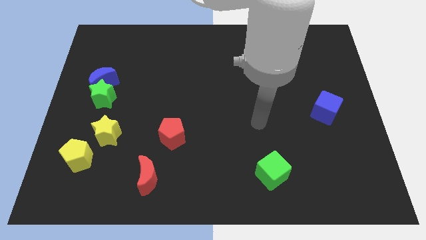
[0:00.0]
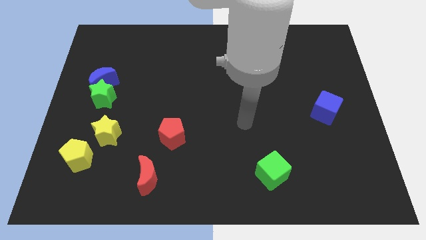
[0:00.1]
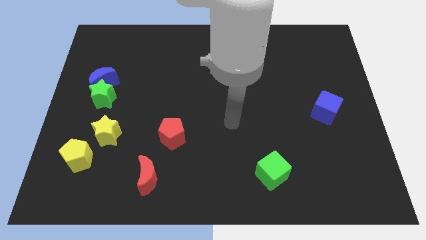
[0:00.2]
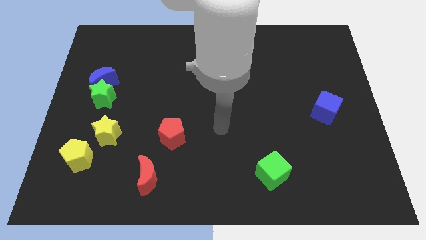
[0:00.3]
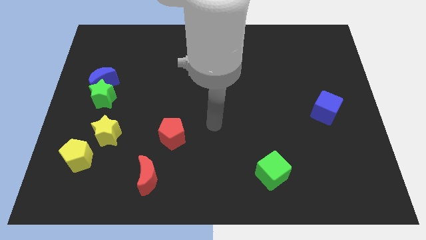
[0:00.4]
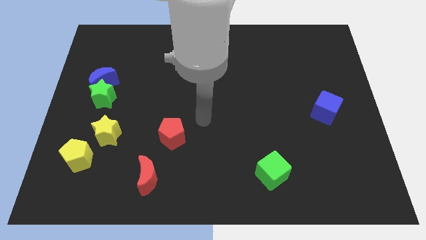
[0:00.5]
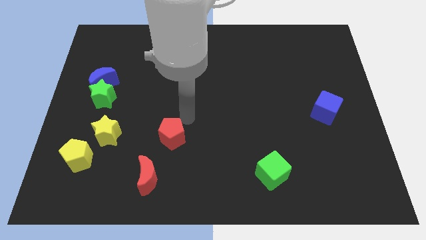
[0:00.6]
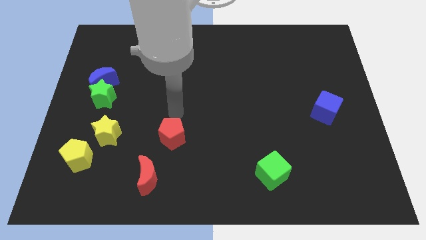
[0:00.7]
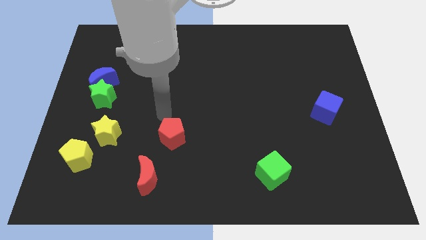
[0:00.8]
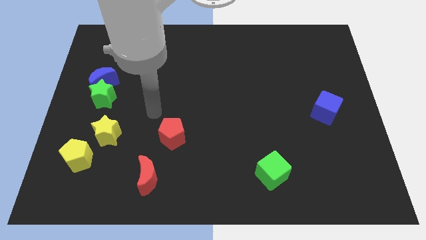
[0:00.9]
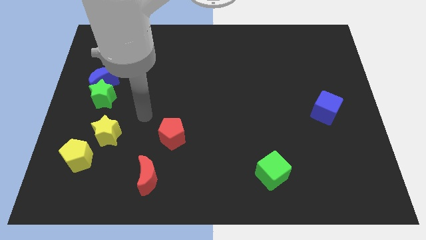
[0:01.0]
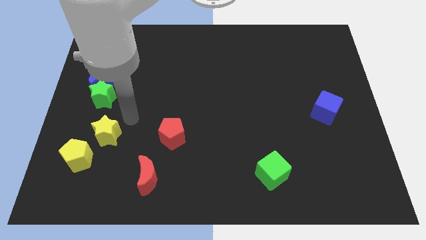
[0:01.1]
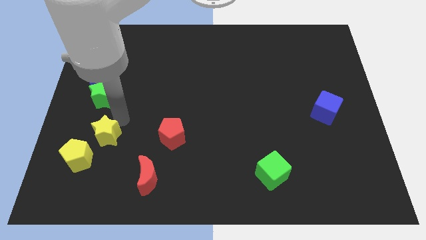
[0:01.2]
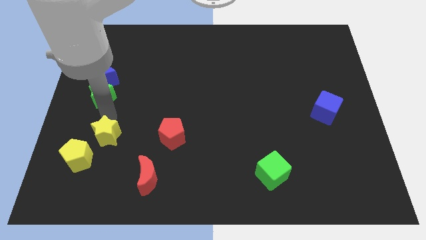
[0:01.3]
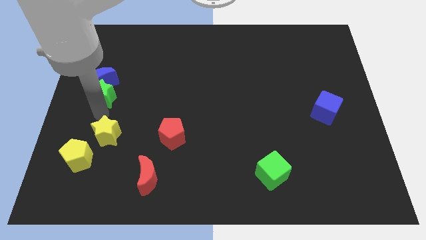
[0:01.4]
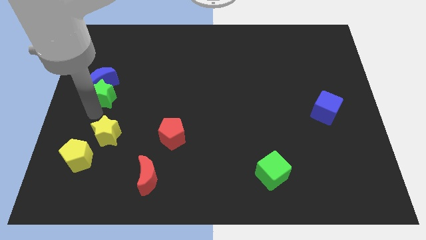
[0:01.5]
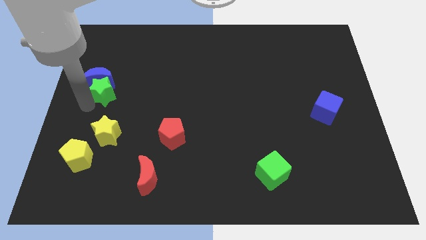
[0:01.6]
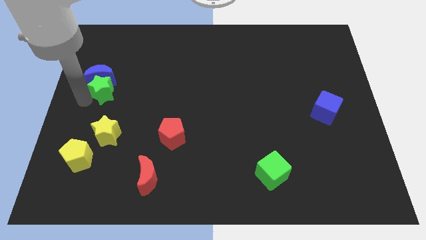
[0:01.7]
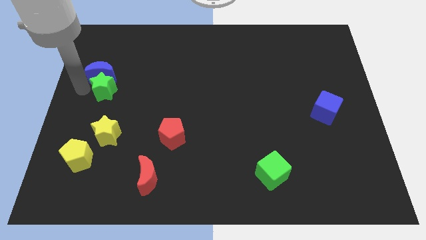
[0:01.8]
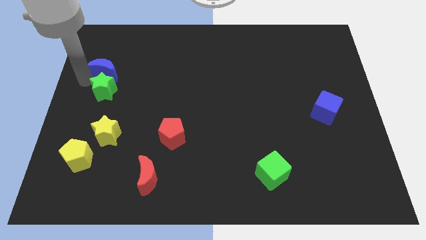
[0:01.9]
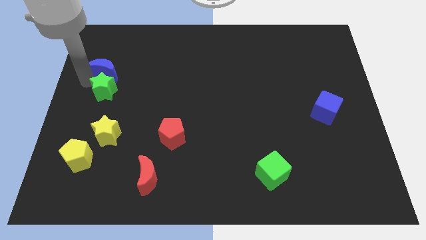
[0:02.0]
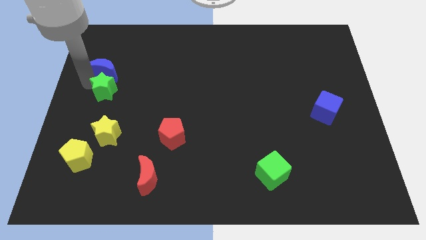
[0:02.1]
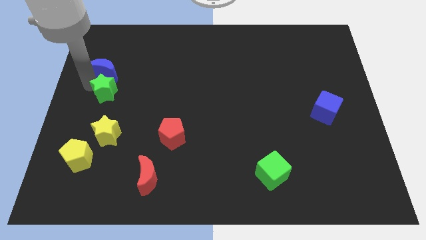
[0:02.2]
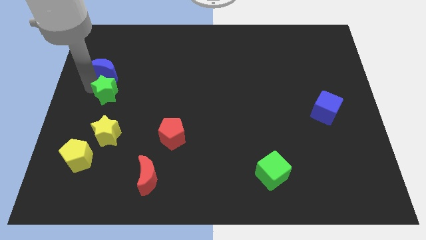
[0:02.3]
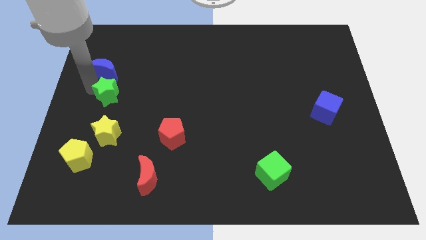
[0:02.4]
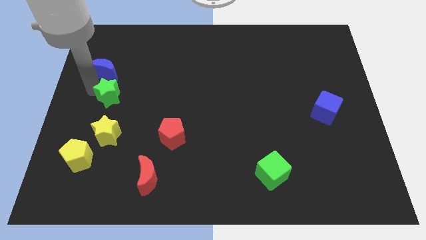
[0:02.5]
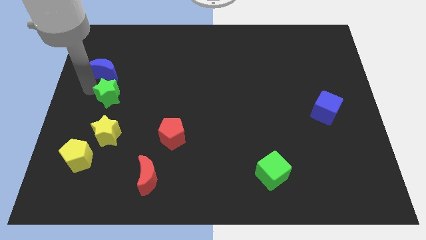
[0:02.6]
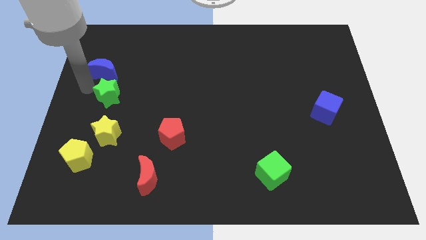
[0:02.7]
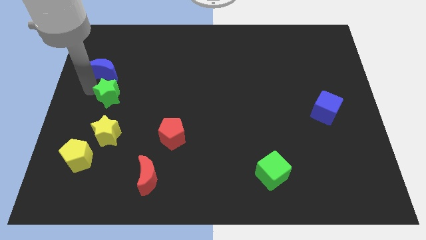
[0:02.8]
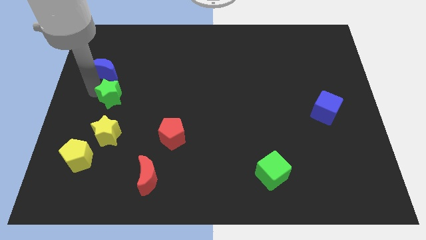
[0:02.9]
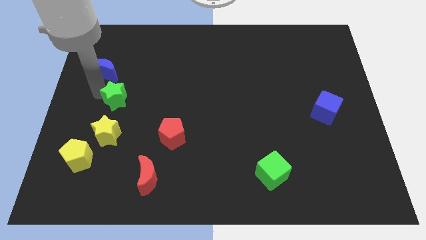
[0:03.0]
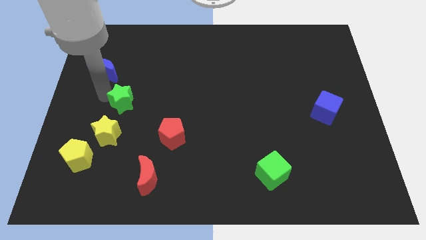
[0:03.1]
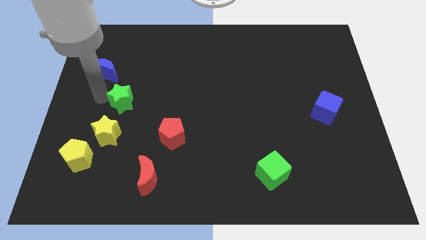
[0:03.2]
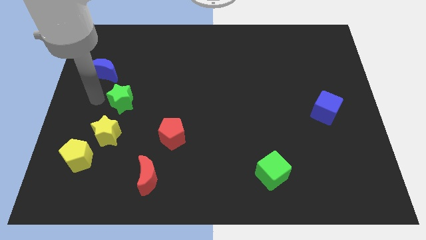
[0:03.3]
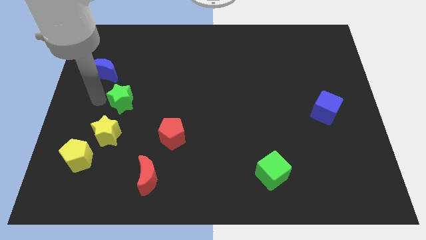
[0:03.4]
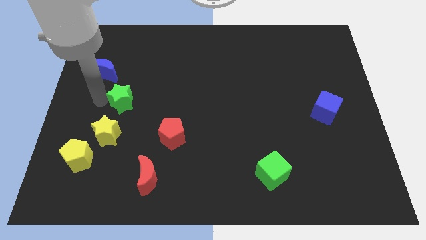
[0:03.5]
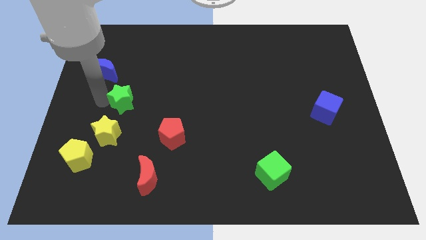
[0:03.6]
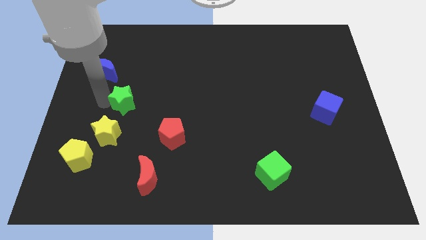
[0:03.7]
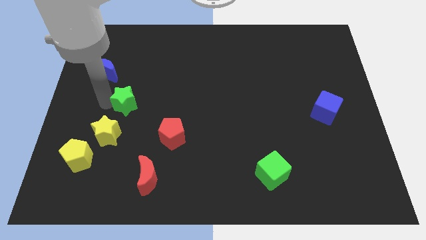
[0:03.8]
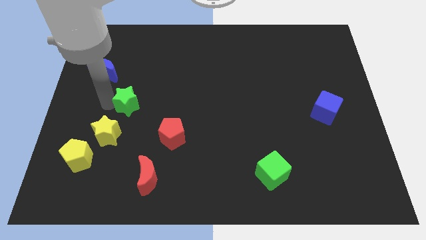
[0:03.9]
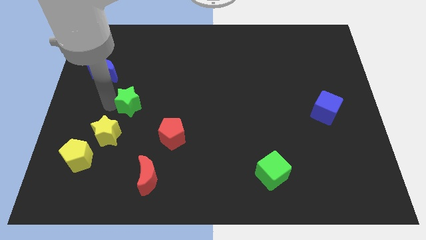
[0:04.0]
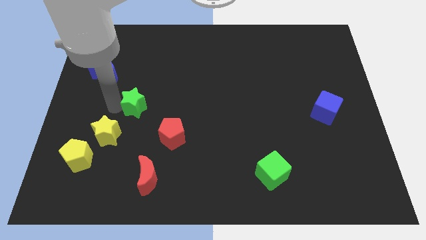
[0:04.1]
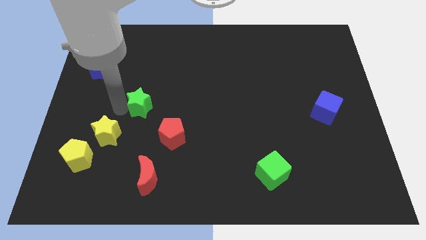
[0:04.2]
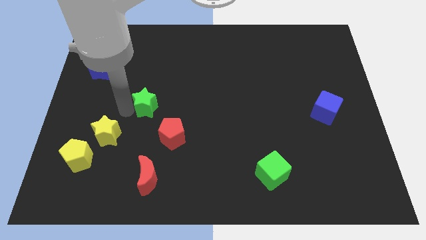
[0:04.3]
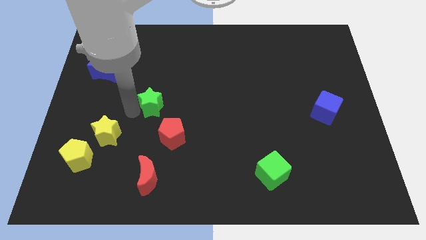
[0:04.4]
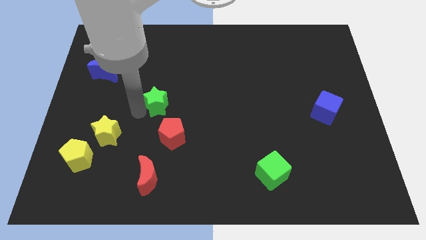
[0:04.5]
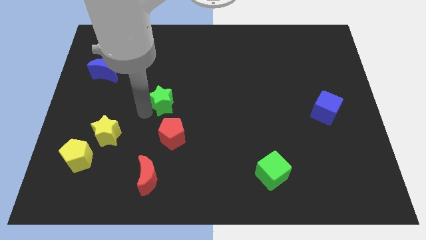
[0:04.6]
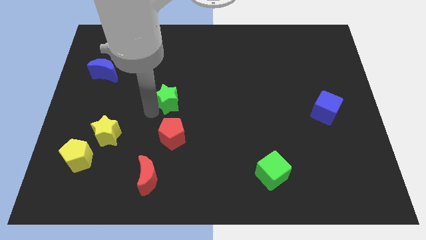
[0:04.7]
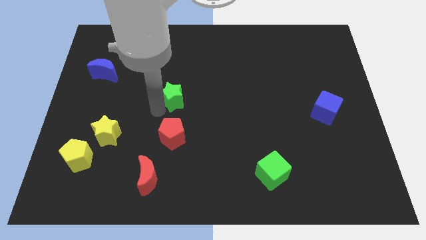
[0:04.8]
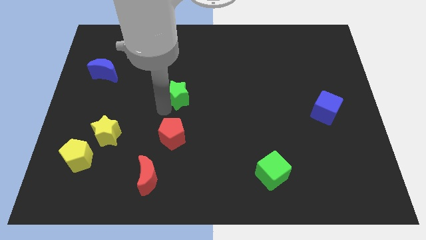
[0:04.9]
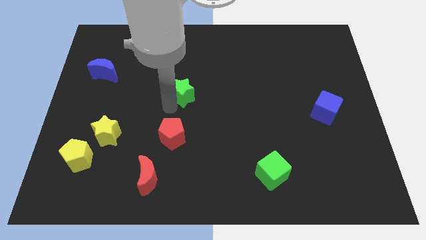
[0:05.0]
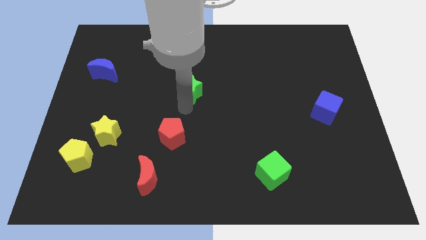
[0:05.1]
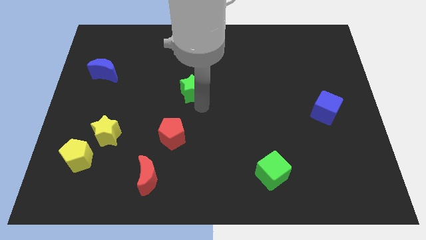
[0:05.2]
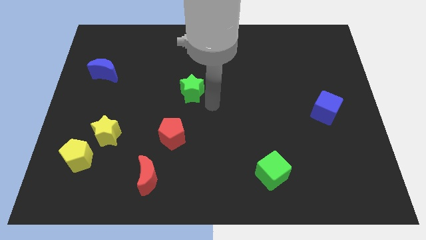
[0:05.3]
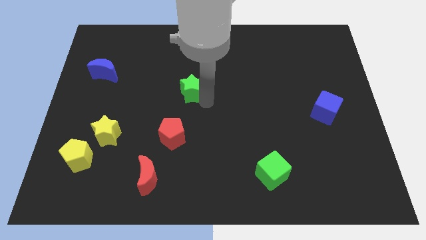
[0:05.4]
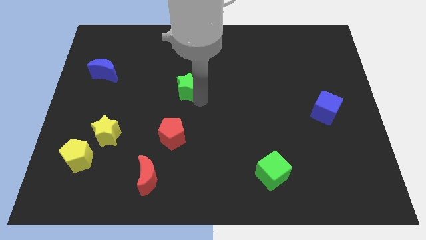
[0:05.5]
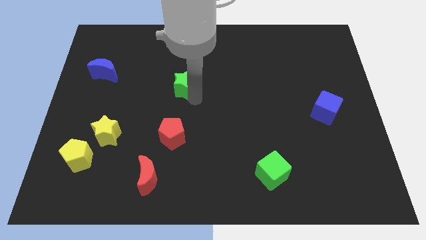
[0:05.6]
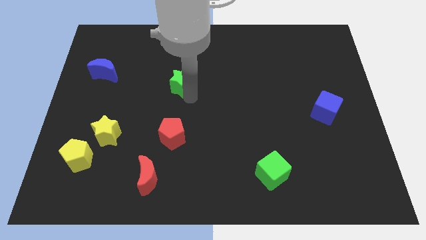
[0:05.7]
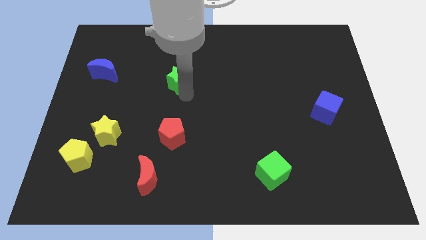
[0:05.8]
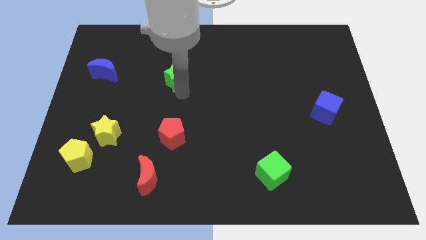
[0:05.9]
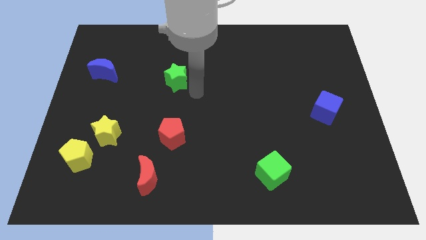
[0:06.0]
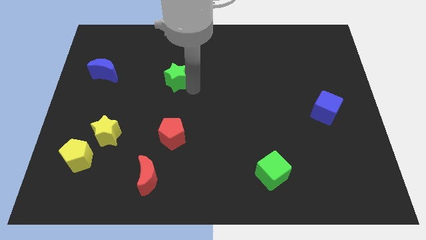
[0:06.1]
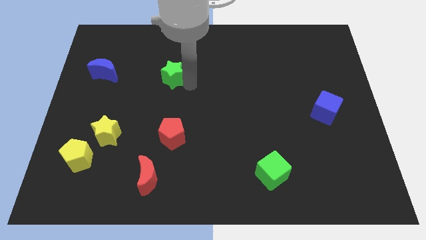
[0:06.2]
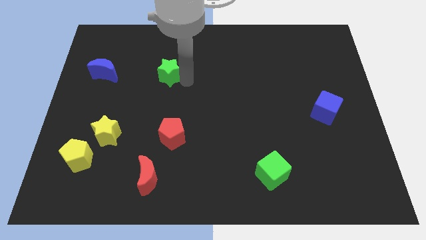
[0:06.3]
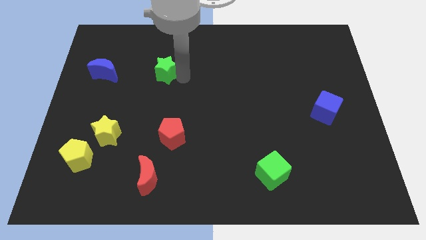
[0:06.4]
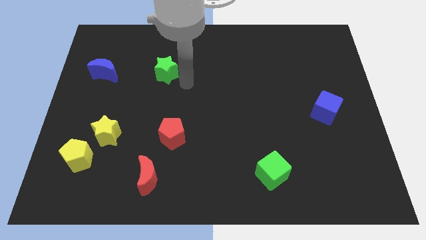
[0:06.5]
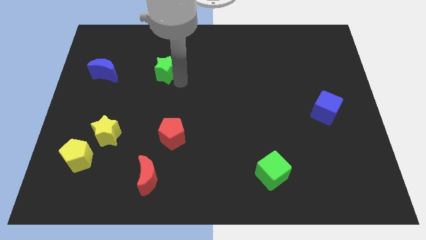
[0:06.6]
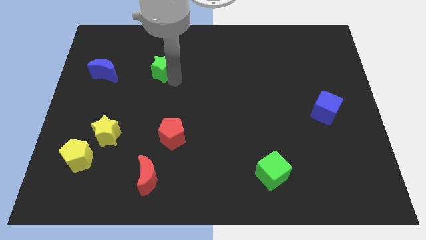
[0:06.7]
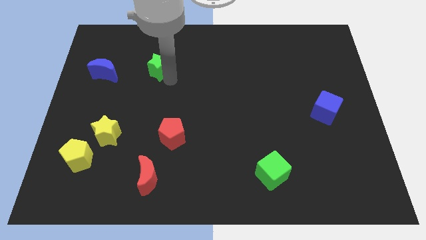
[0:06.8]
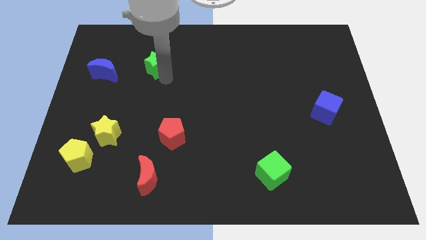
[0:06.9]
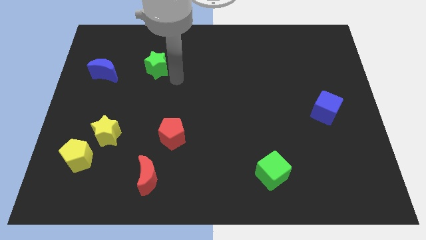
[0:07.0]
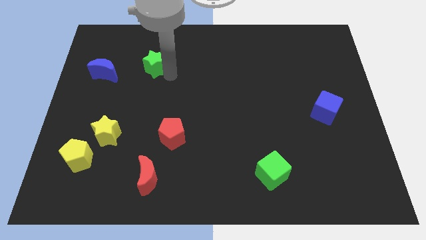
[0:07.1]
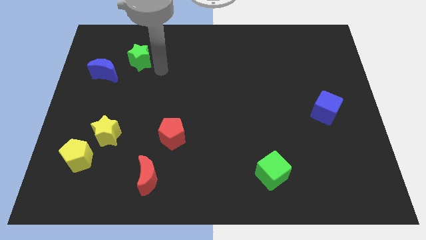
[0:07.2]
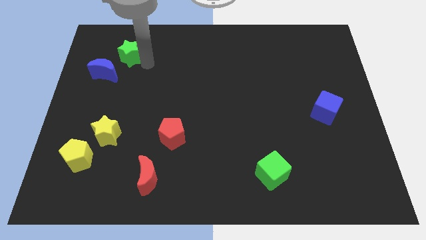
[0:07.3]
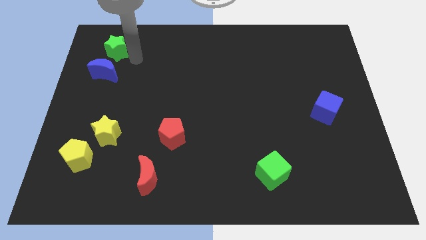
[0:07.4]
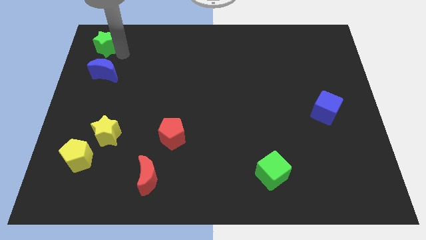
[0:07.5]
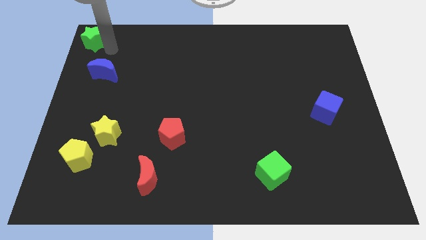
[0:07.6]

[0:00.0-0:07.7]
push the green star to the upper left corner
